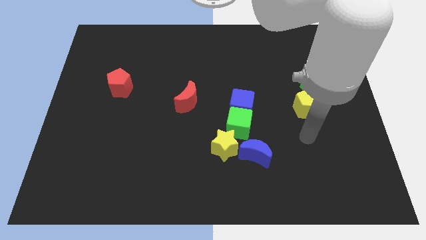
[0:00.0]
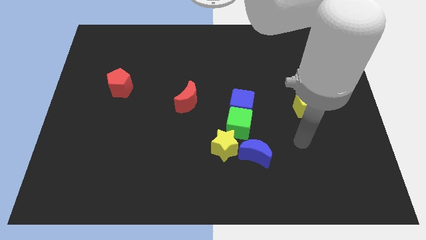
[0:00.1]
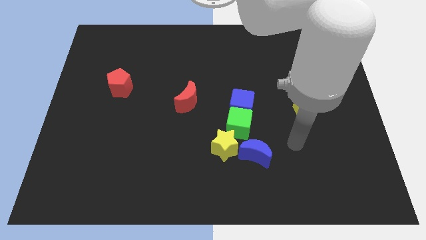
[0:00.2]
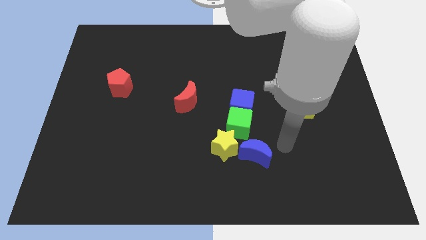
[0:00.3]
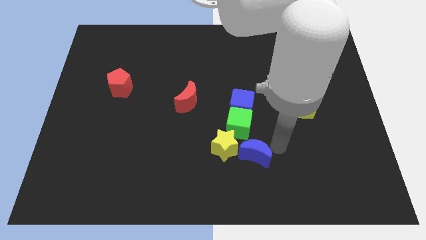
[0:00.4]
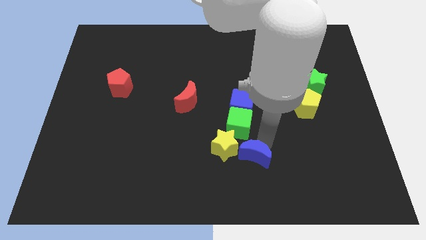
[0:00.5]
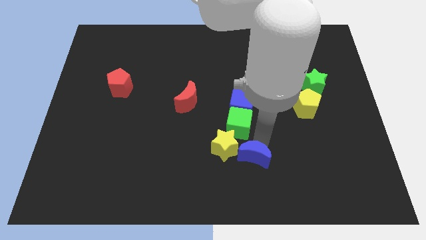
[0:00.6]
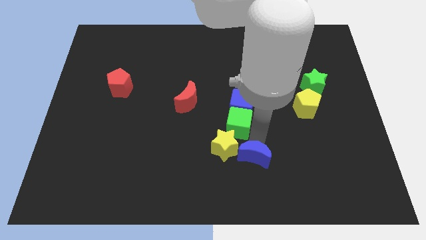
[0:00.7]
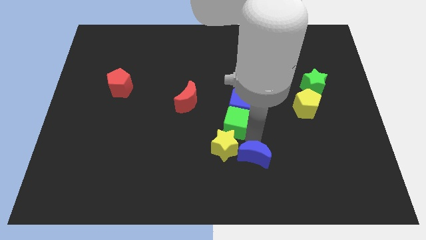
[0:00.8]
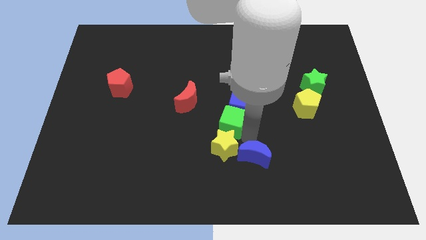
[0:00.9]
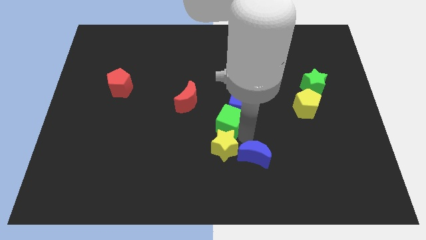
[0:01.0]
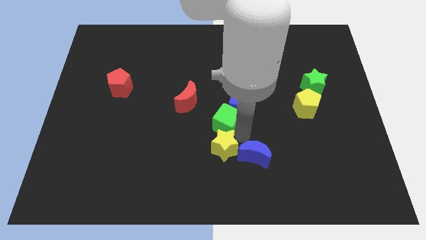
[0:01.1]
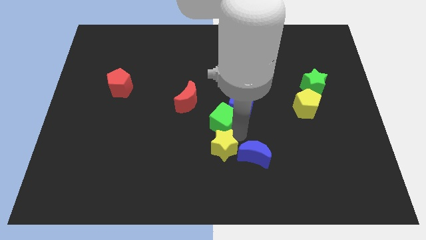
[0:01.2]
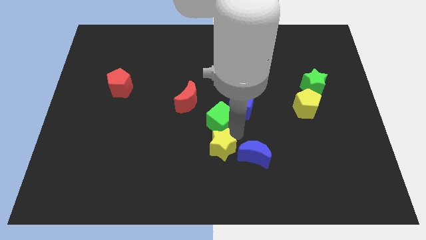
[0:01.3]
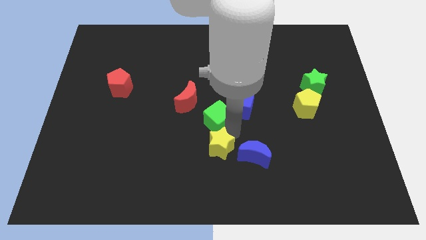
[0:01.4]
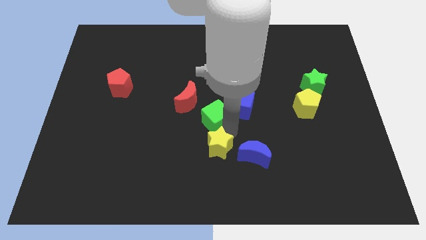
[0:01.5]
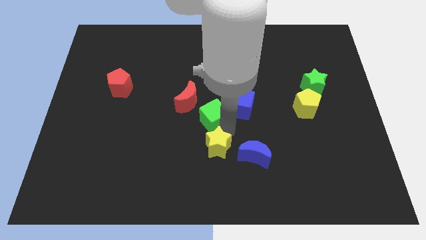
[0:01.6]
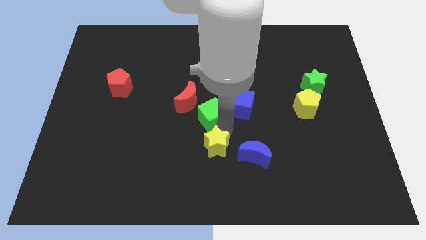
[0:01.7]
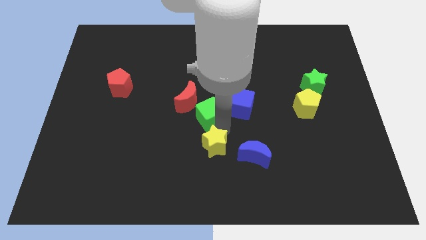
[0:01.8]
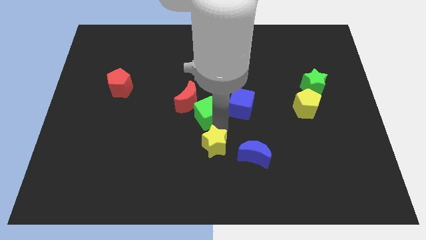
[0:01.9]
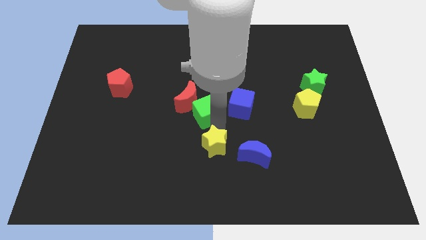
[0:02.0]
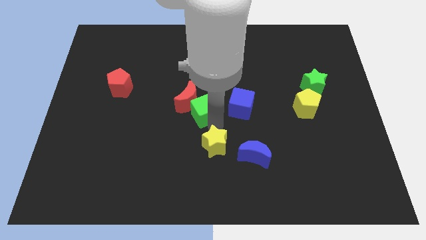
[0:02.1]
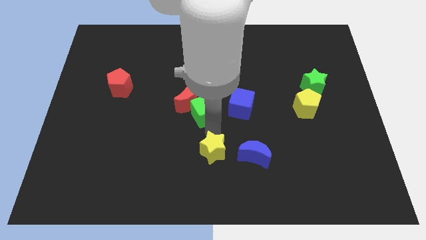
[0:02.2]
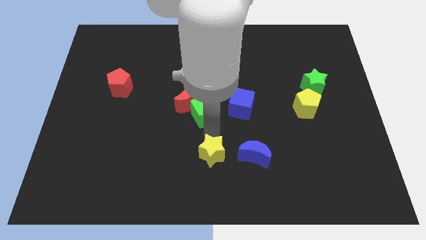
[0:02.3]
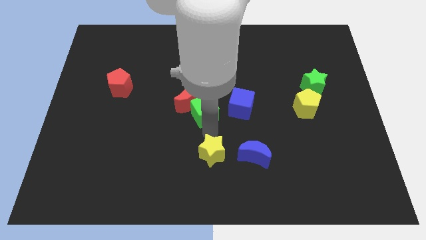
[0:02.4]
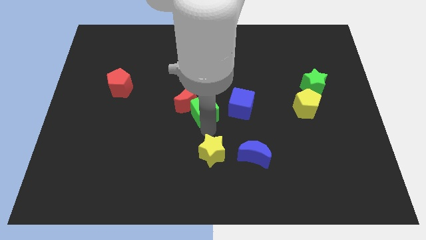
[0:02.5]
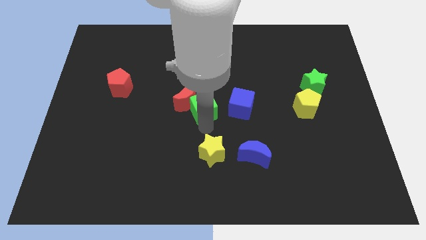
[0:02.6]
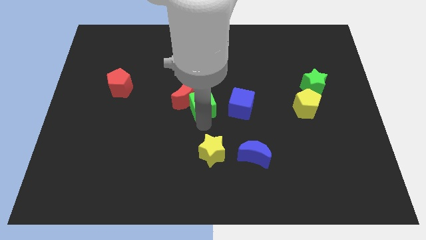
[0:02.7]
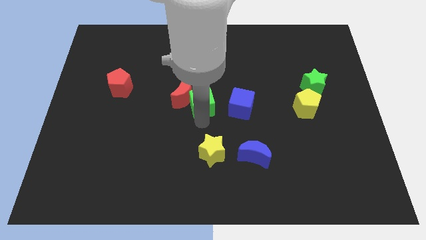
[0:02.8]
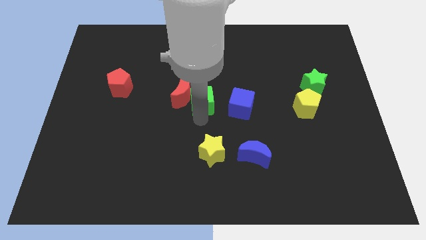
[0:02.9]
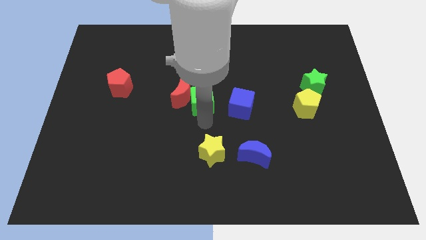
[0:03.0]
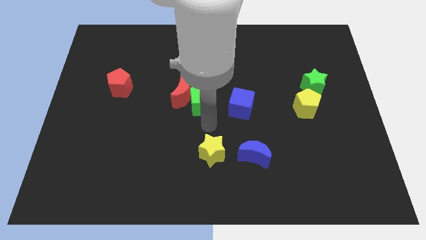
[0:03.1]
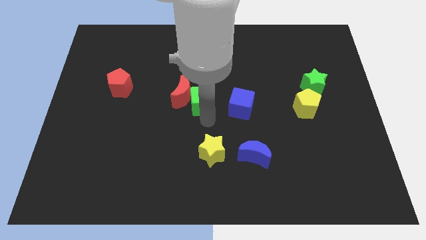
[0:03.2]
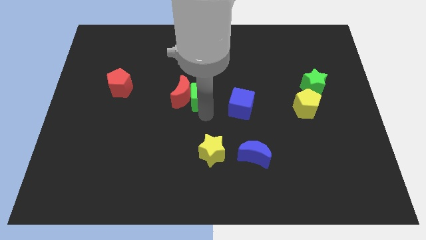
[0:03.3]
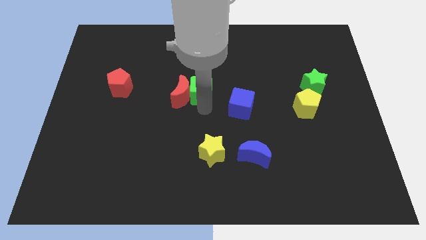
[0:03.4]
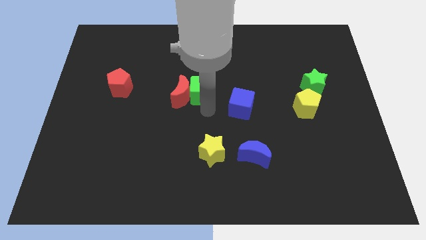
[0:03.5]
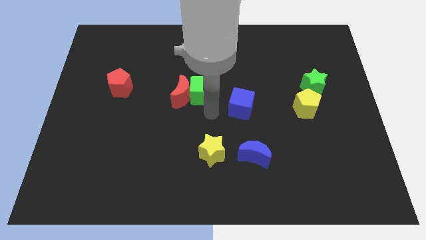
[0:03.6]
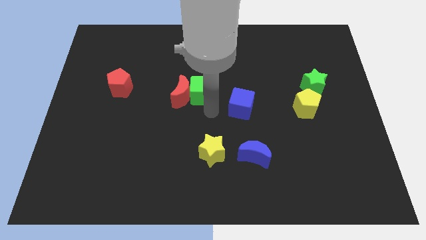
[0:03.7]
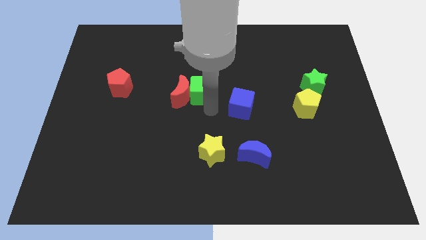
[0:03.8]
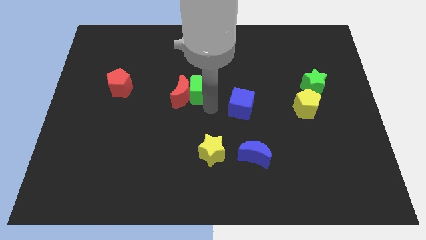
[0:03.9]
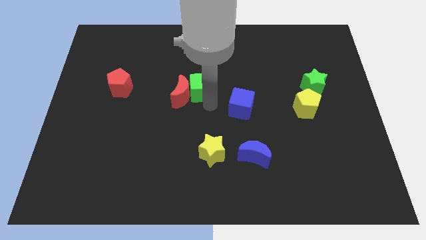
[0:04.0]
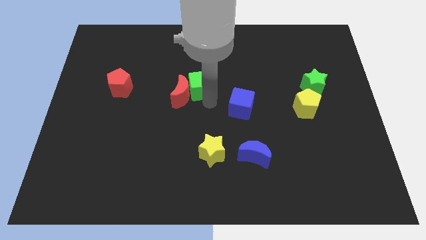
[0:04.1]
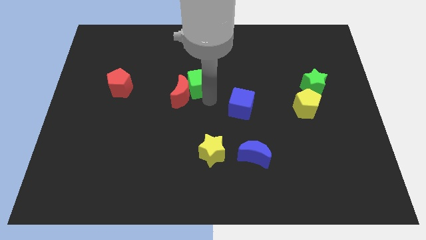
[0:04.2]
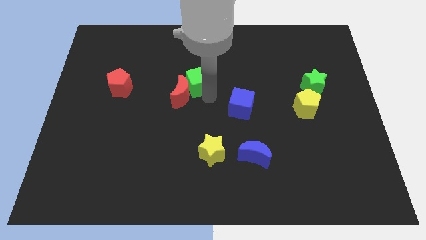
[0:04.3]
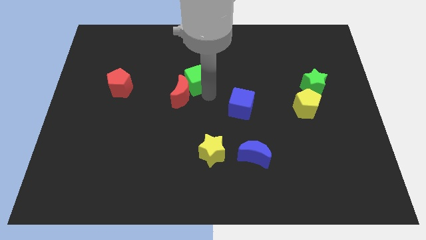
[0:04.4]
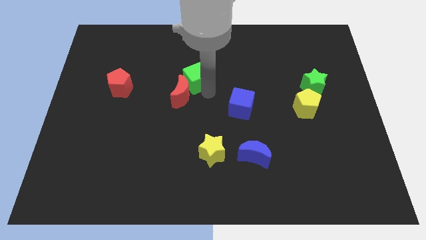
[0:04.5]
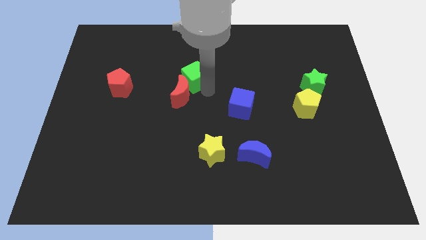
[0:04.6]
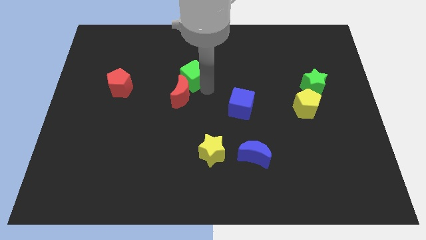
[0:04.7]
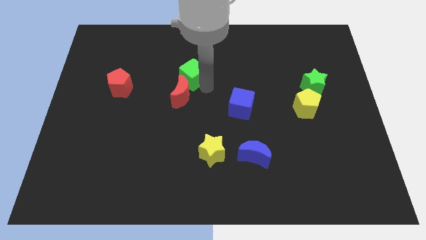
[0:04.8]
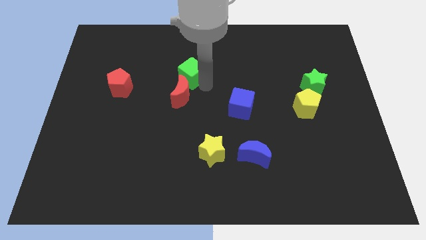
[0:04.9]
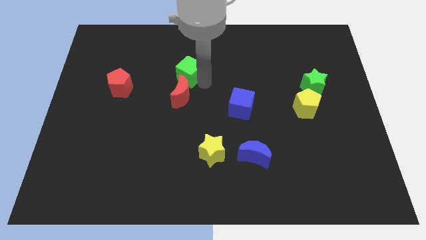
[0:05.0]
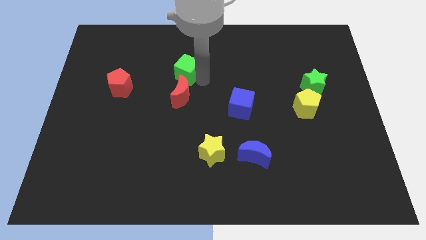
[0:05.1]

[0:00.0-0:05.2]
push the green cube upwards and to the left

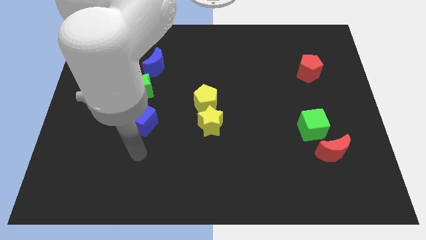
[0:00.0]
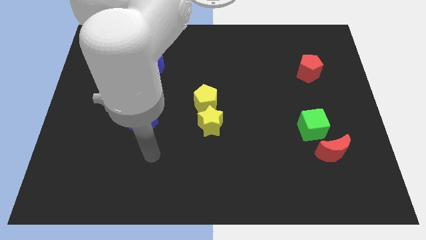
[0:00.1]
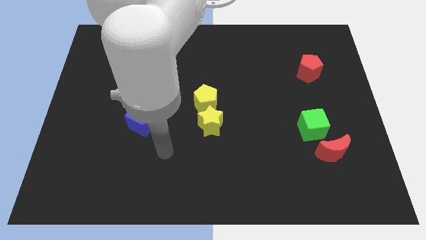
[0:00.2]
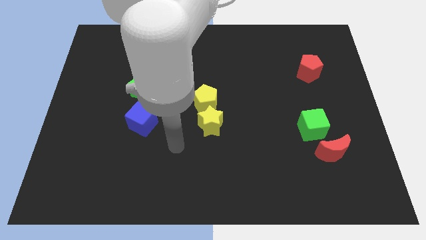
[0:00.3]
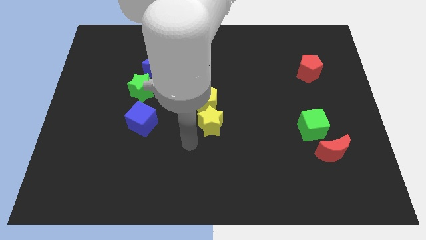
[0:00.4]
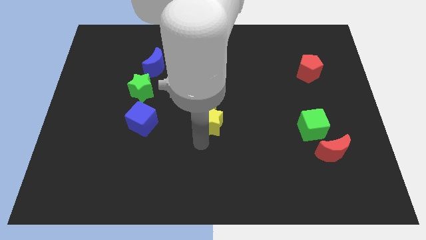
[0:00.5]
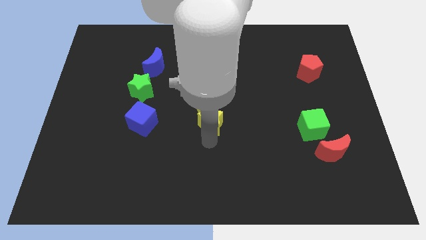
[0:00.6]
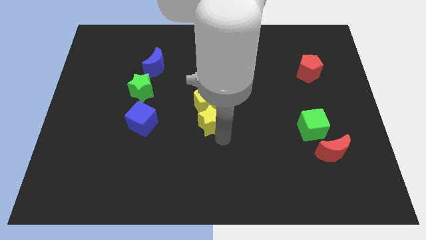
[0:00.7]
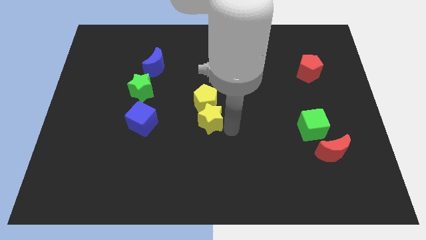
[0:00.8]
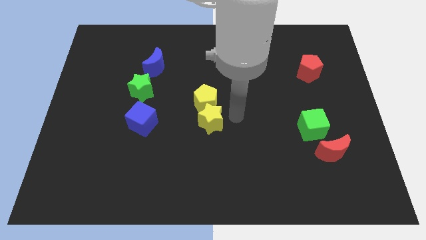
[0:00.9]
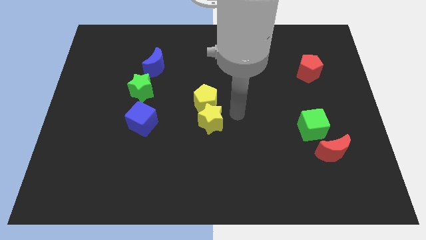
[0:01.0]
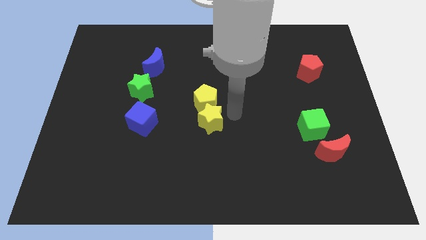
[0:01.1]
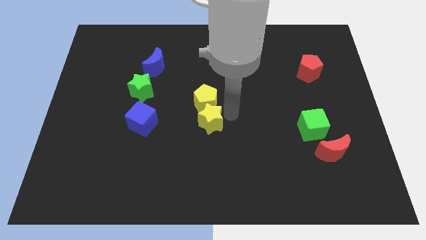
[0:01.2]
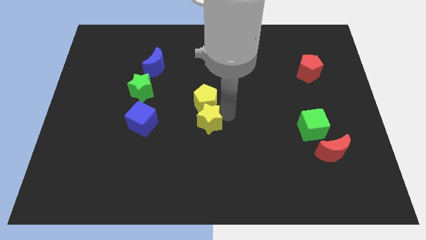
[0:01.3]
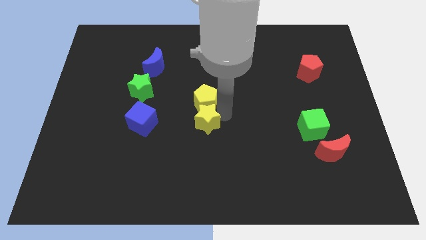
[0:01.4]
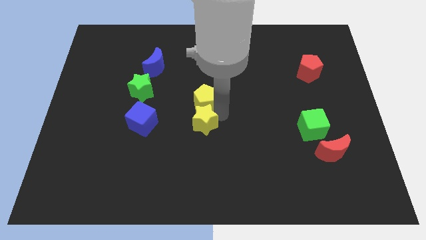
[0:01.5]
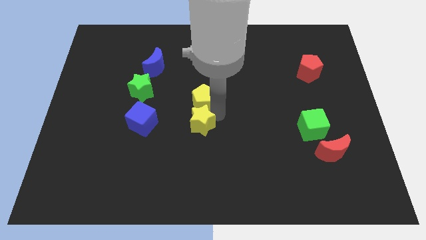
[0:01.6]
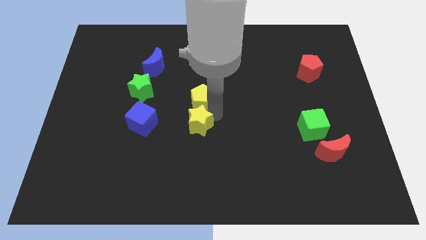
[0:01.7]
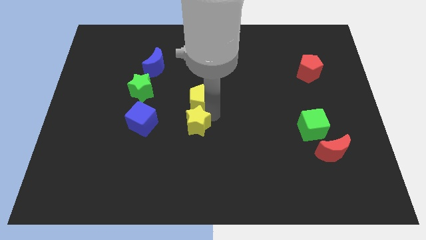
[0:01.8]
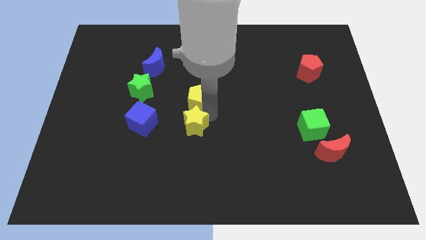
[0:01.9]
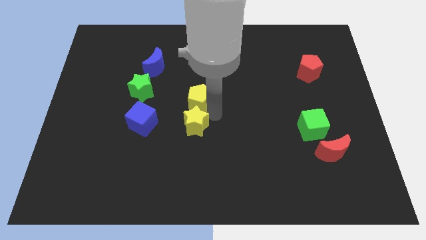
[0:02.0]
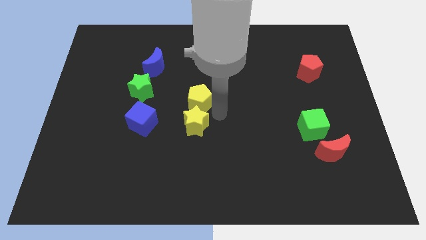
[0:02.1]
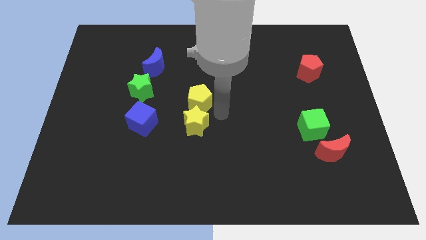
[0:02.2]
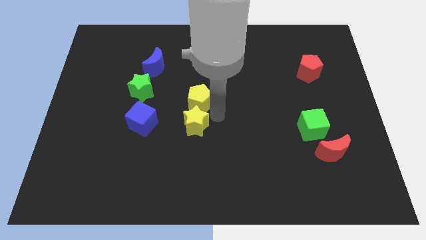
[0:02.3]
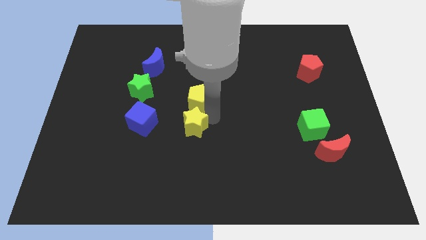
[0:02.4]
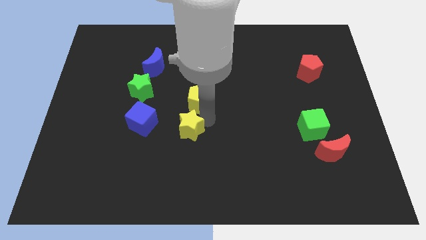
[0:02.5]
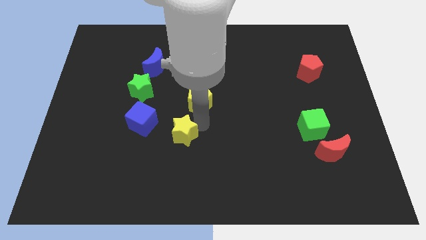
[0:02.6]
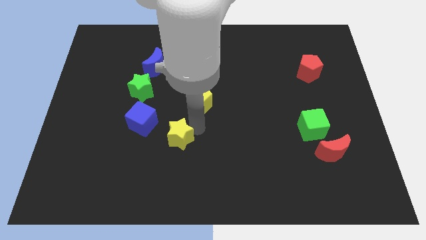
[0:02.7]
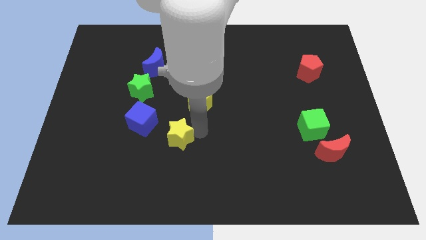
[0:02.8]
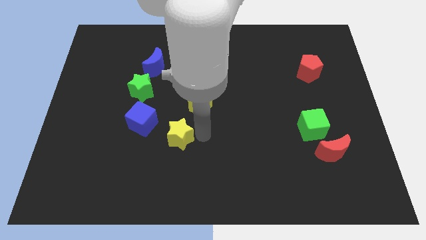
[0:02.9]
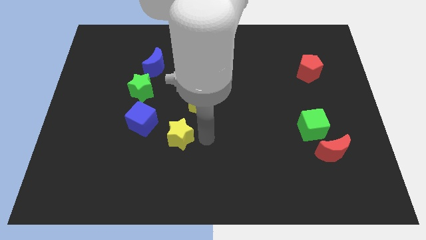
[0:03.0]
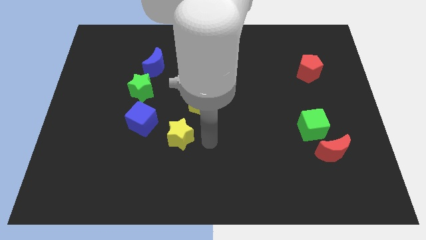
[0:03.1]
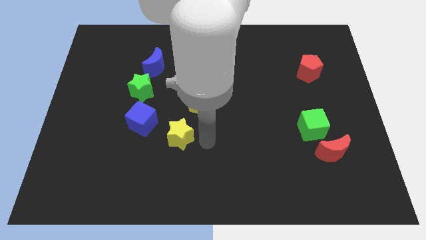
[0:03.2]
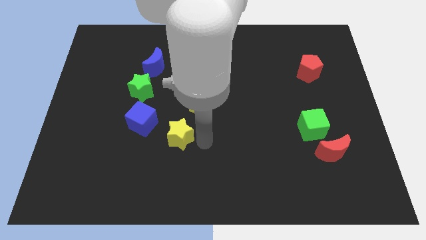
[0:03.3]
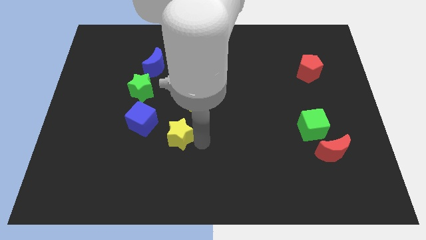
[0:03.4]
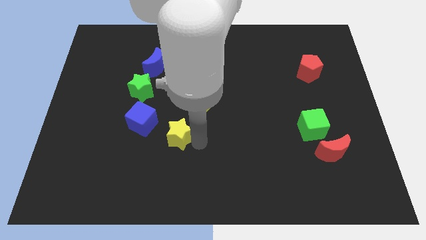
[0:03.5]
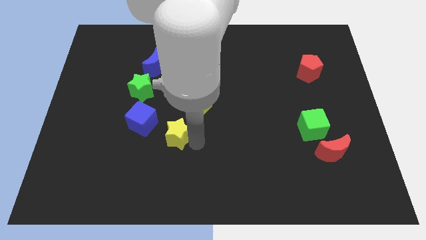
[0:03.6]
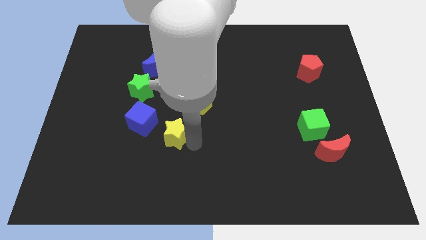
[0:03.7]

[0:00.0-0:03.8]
slightly slide the yellow star to the left
